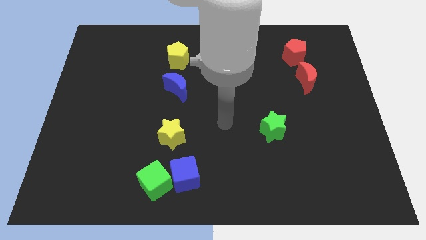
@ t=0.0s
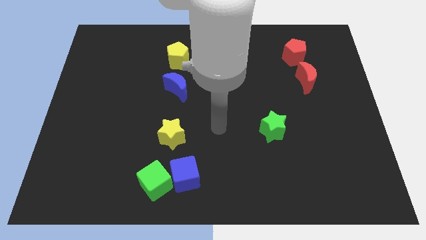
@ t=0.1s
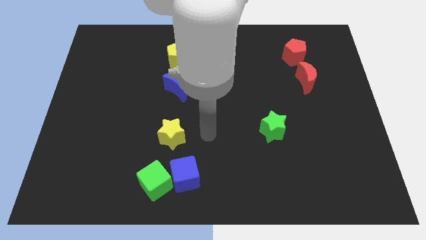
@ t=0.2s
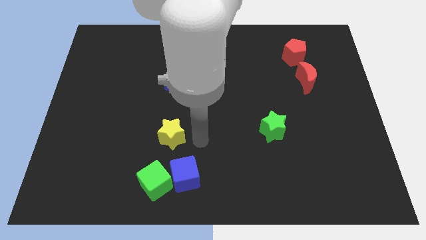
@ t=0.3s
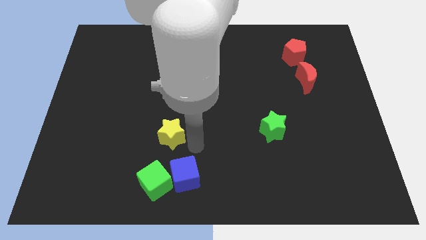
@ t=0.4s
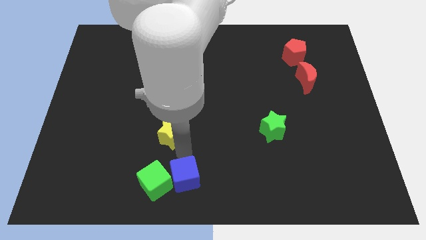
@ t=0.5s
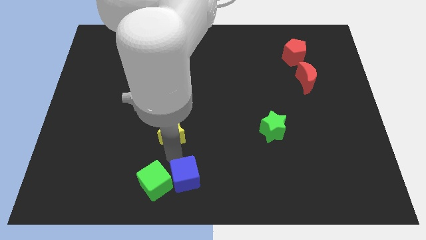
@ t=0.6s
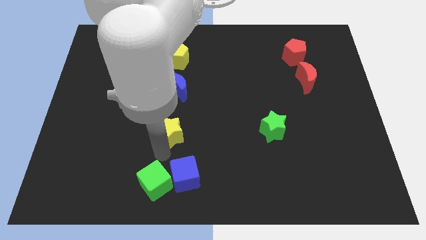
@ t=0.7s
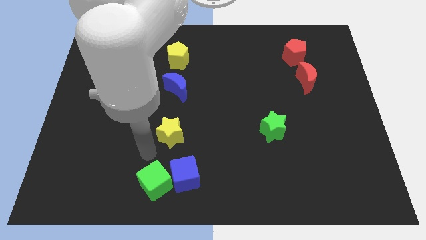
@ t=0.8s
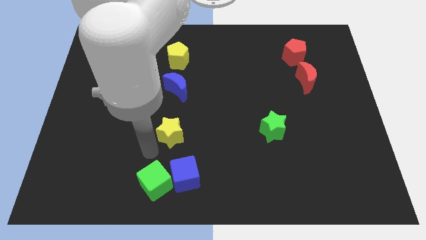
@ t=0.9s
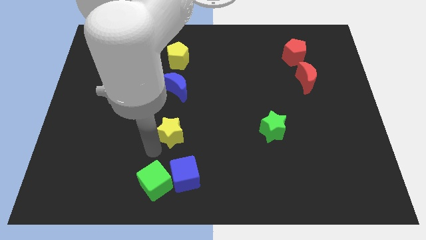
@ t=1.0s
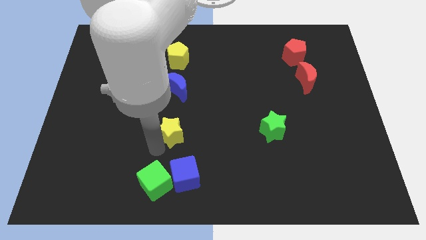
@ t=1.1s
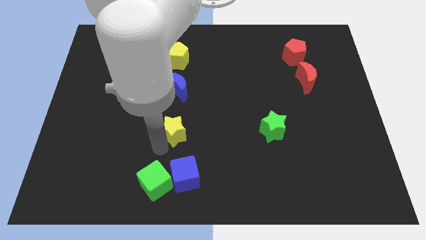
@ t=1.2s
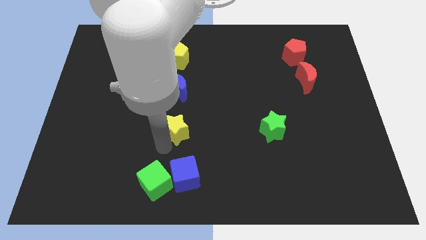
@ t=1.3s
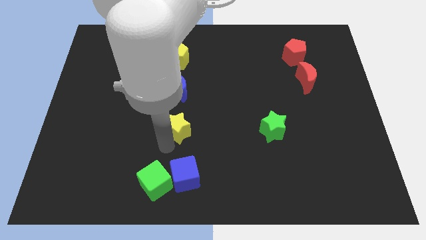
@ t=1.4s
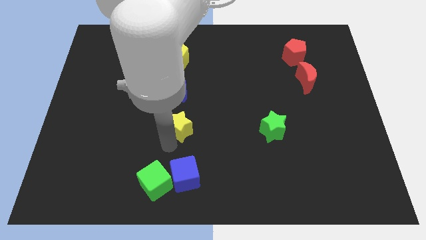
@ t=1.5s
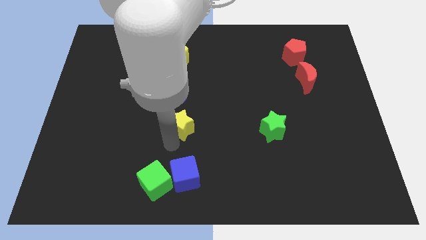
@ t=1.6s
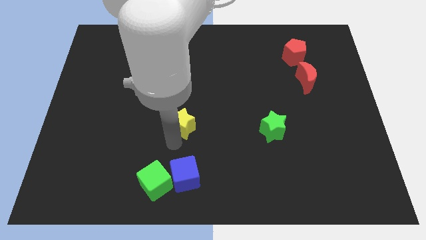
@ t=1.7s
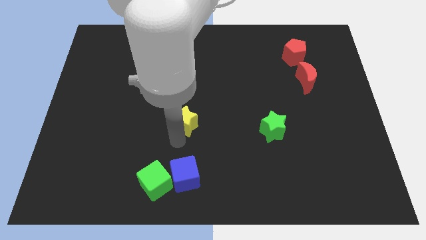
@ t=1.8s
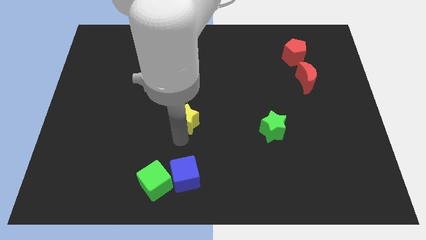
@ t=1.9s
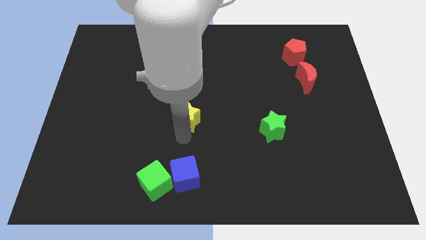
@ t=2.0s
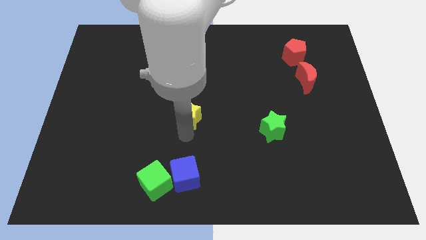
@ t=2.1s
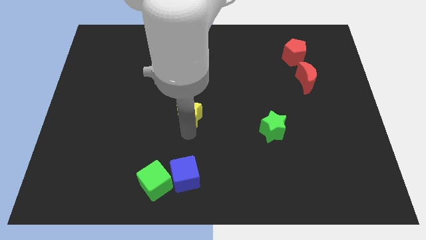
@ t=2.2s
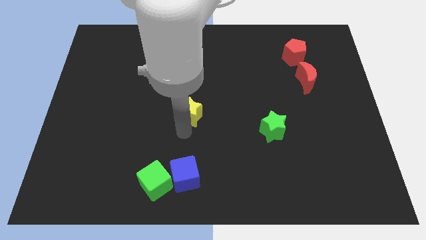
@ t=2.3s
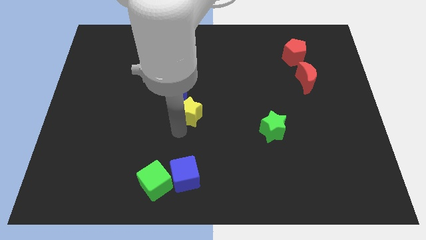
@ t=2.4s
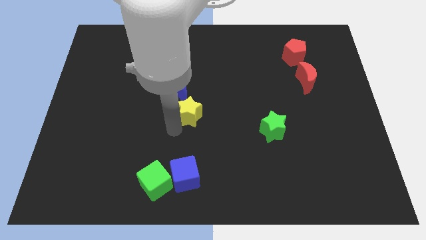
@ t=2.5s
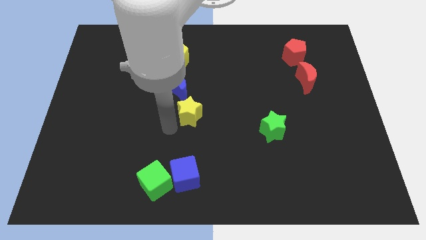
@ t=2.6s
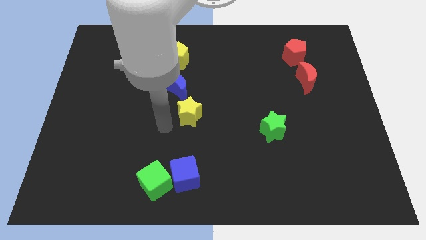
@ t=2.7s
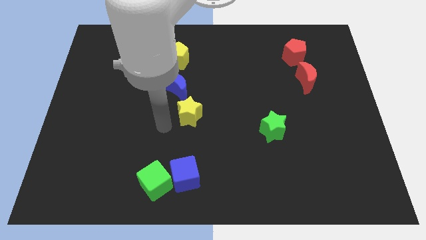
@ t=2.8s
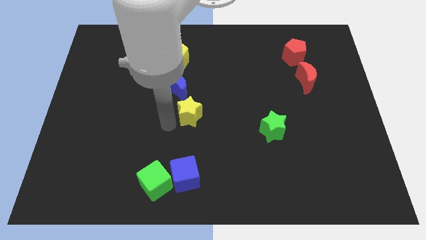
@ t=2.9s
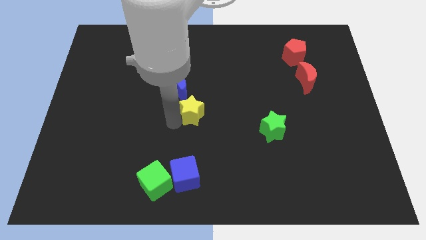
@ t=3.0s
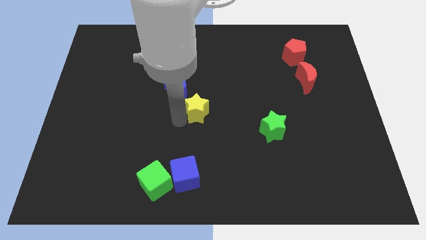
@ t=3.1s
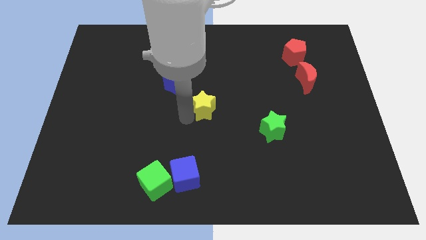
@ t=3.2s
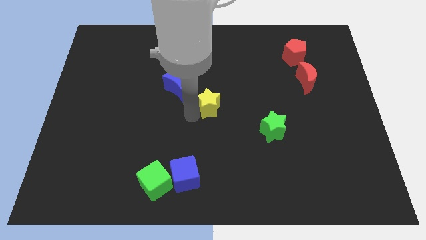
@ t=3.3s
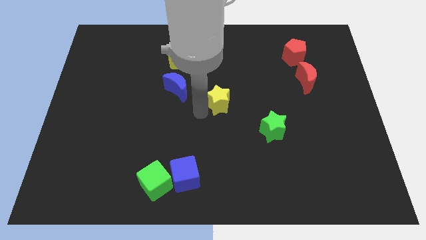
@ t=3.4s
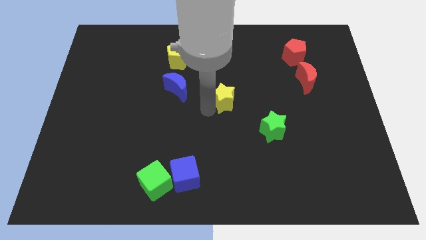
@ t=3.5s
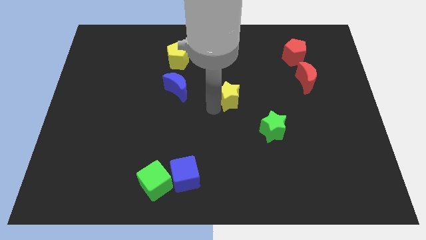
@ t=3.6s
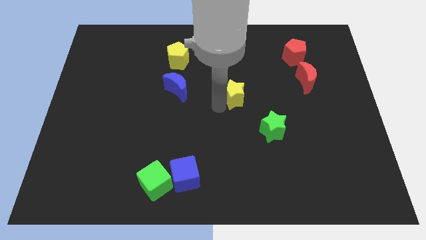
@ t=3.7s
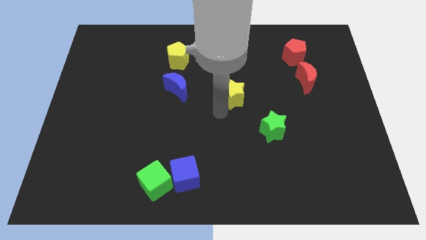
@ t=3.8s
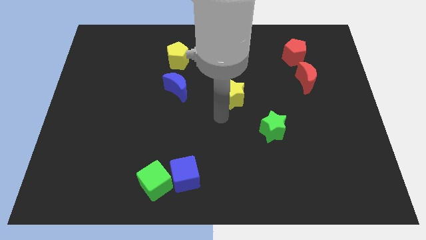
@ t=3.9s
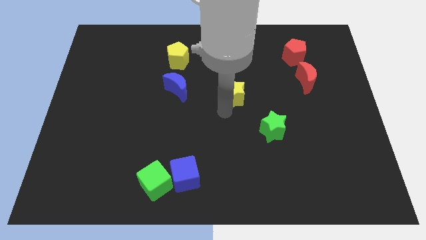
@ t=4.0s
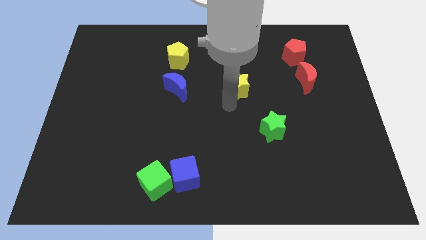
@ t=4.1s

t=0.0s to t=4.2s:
slide the yellow star diagonally upwards and right

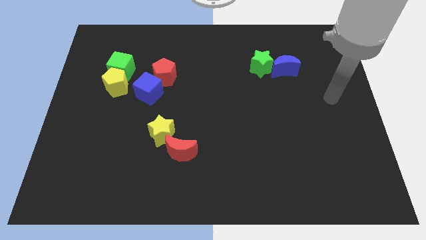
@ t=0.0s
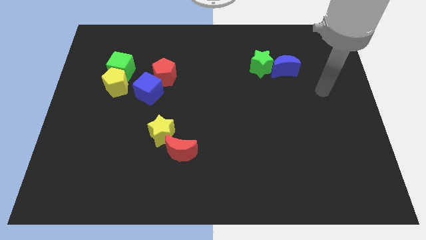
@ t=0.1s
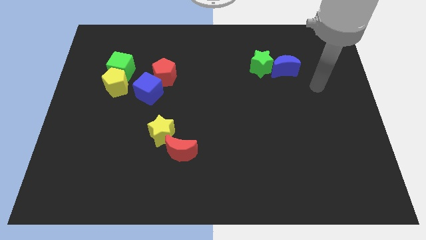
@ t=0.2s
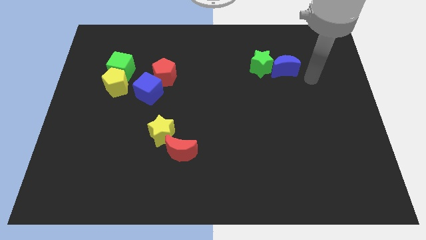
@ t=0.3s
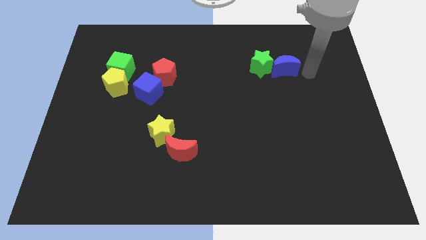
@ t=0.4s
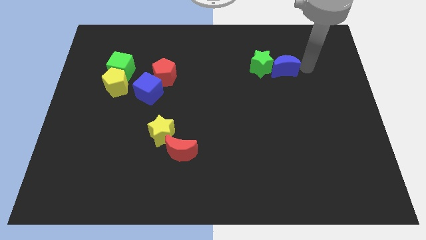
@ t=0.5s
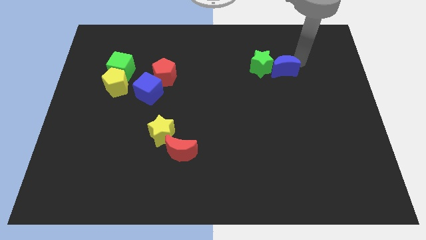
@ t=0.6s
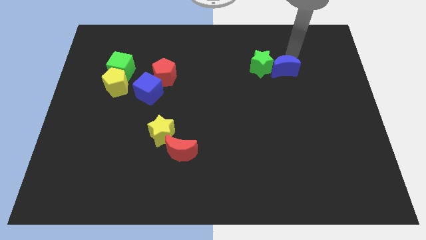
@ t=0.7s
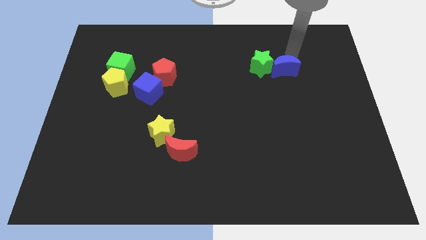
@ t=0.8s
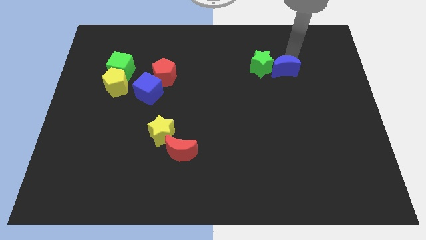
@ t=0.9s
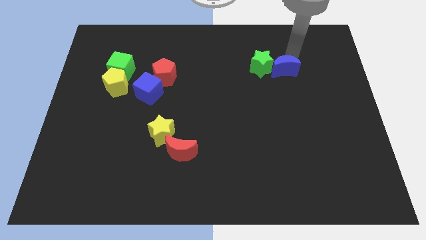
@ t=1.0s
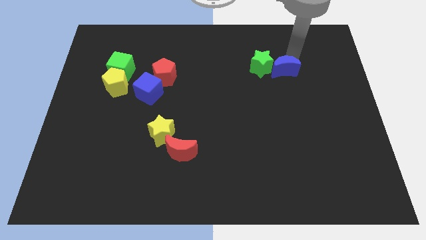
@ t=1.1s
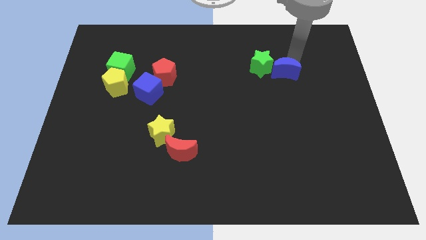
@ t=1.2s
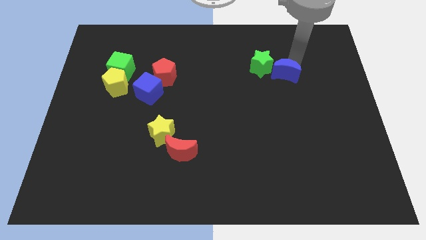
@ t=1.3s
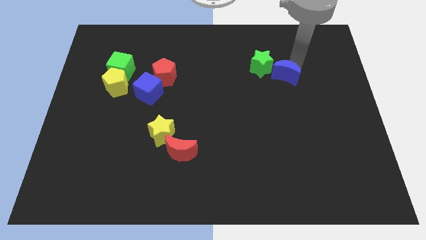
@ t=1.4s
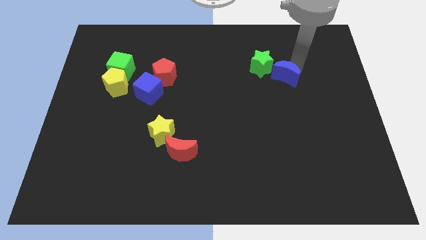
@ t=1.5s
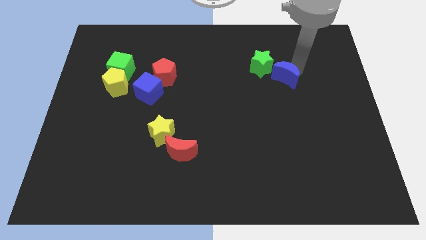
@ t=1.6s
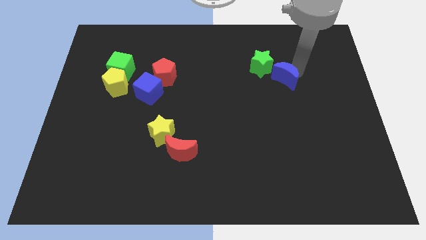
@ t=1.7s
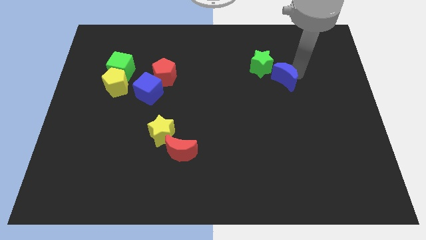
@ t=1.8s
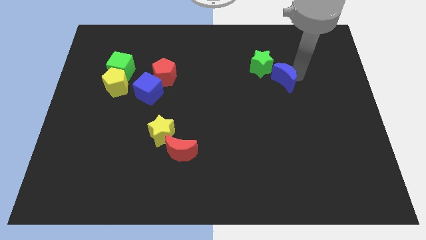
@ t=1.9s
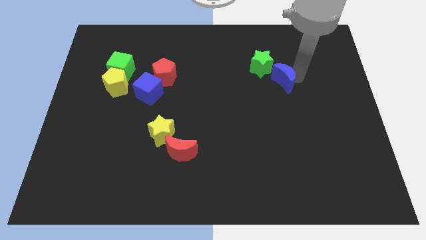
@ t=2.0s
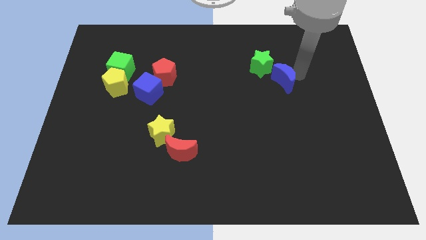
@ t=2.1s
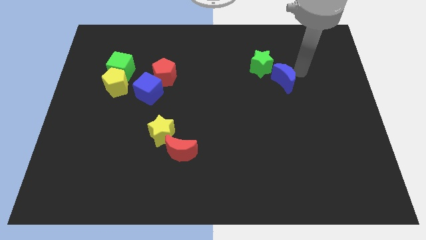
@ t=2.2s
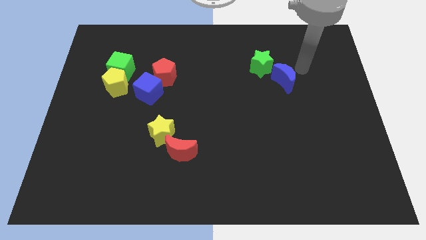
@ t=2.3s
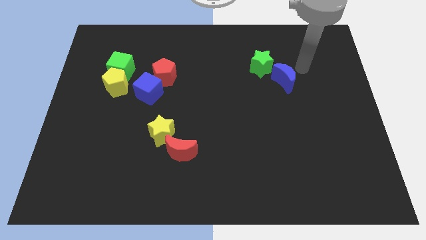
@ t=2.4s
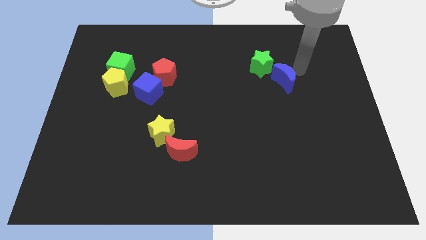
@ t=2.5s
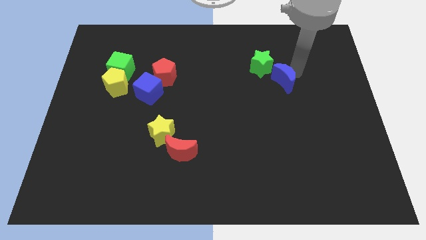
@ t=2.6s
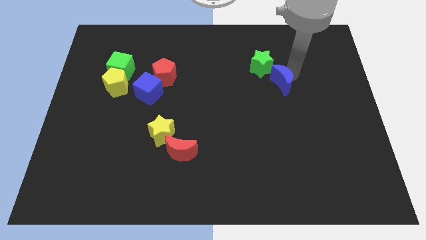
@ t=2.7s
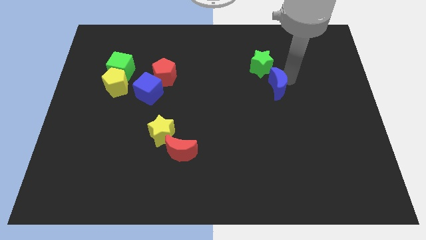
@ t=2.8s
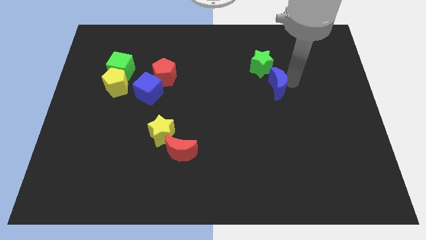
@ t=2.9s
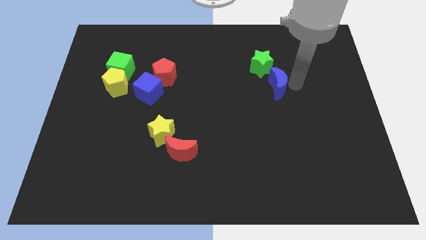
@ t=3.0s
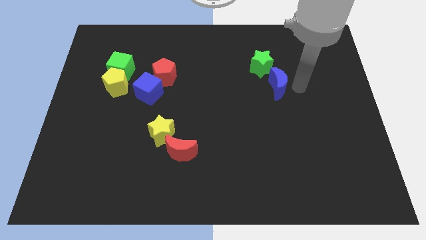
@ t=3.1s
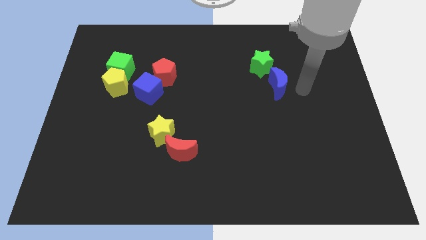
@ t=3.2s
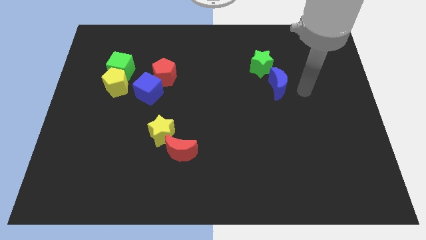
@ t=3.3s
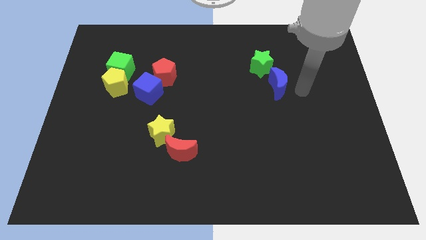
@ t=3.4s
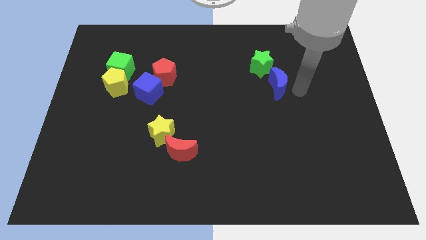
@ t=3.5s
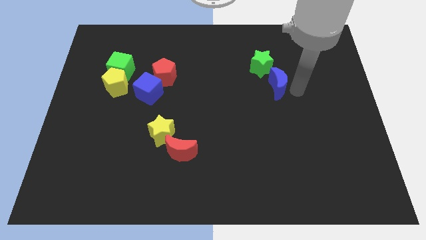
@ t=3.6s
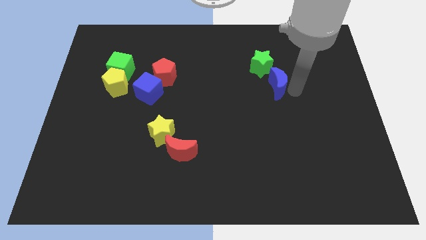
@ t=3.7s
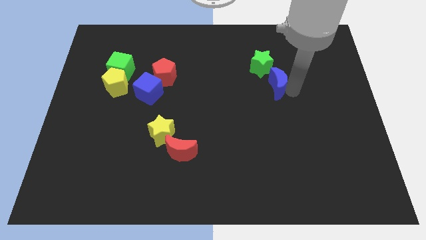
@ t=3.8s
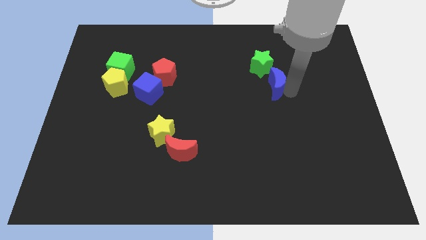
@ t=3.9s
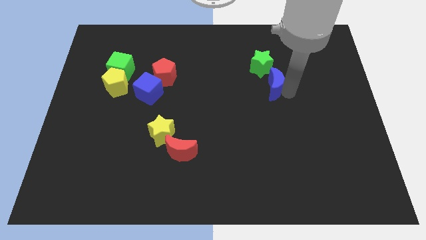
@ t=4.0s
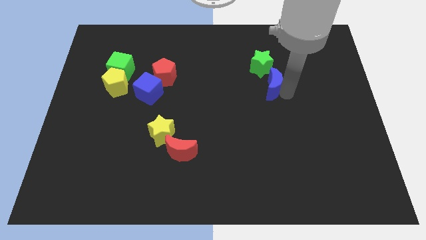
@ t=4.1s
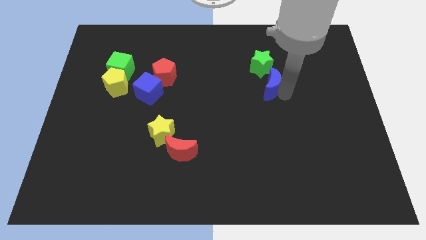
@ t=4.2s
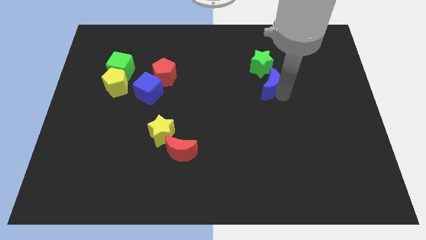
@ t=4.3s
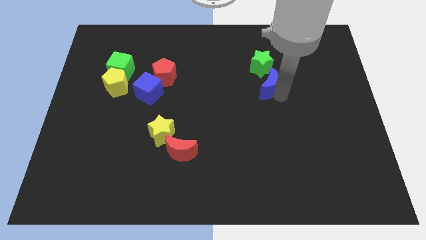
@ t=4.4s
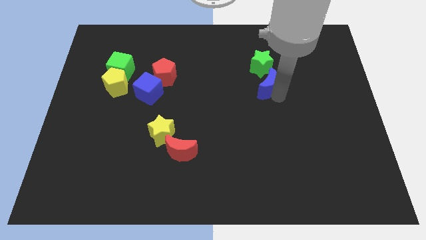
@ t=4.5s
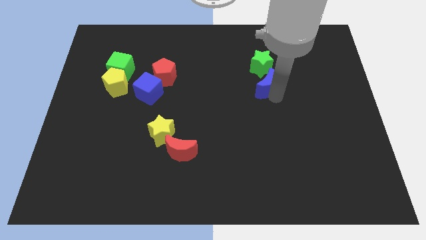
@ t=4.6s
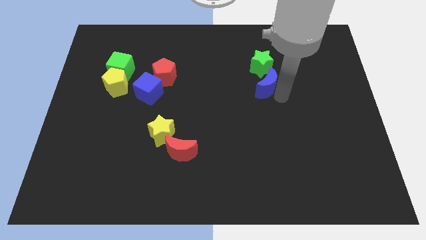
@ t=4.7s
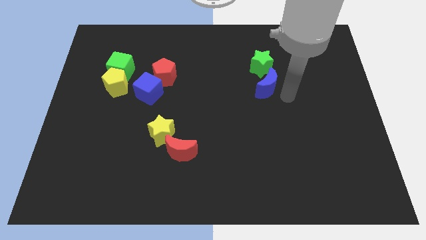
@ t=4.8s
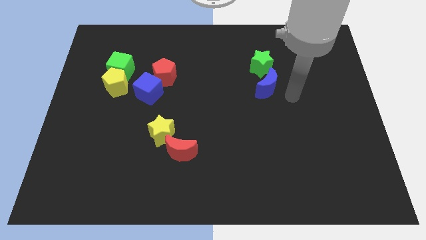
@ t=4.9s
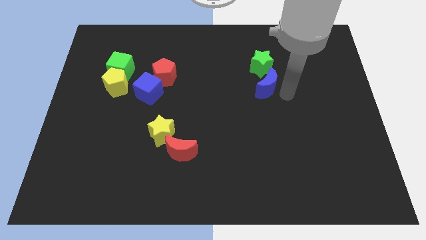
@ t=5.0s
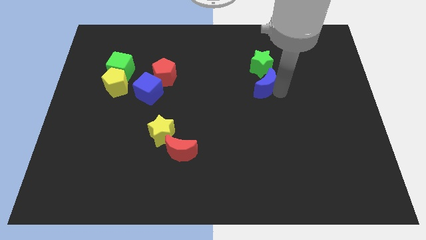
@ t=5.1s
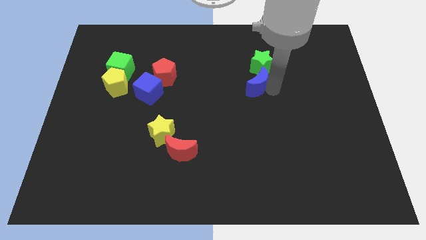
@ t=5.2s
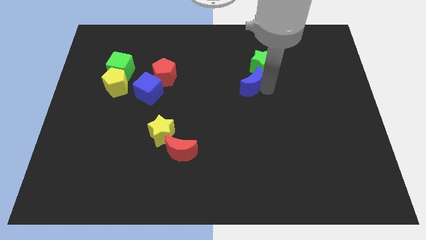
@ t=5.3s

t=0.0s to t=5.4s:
slide the blue moon a little bit to the left
